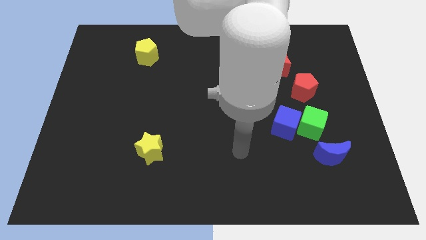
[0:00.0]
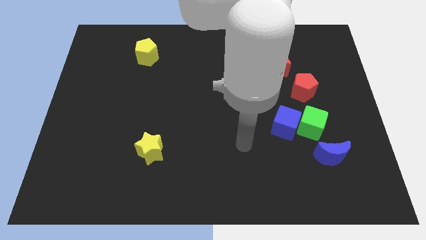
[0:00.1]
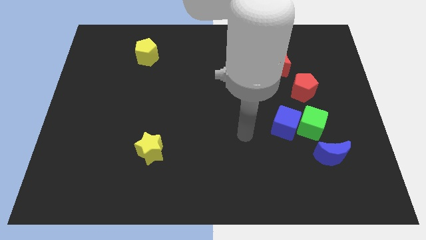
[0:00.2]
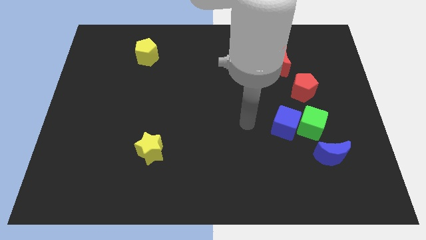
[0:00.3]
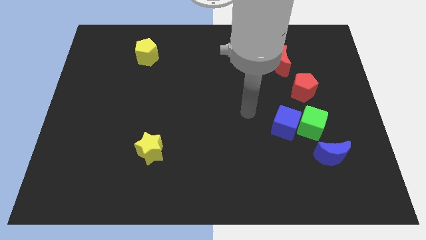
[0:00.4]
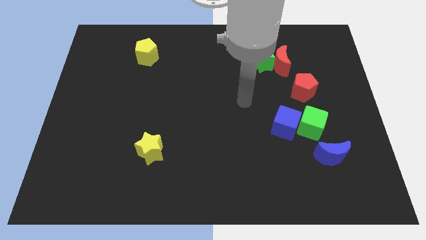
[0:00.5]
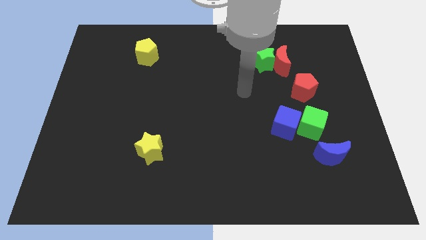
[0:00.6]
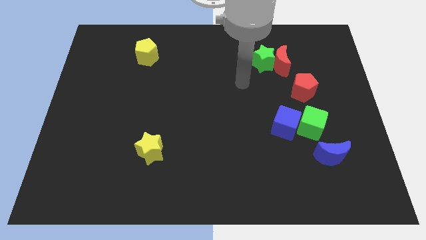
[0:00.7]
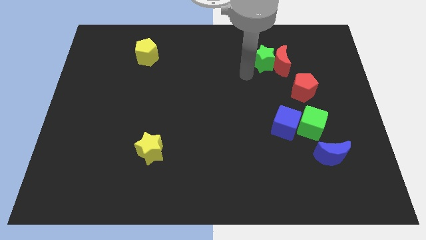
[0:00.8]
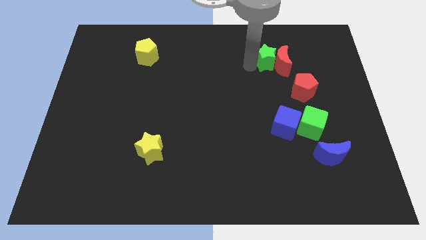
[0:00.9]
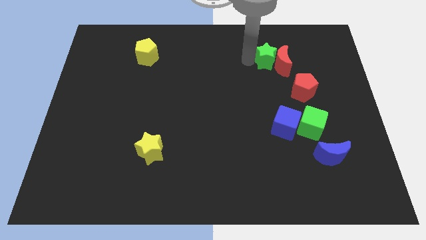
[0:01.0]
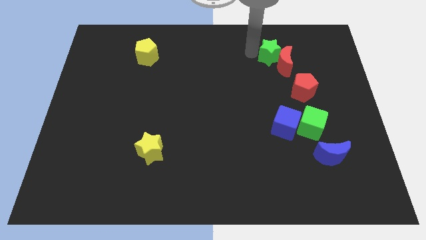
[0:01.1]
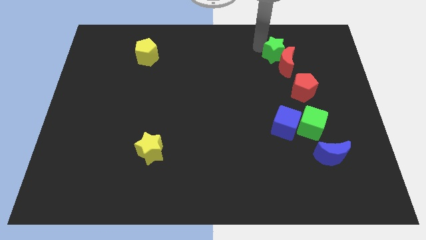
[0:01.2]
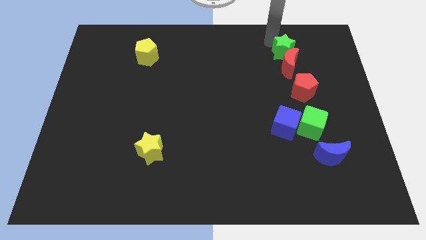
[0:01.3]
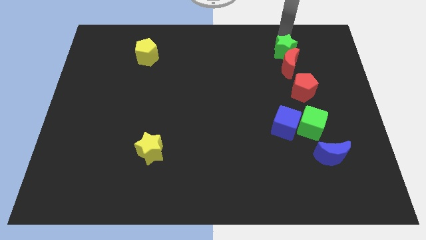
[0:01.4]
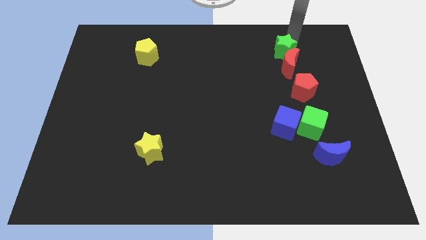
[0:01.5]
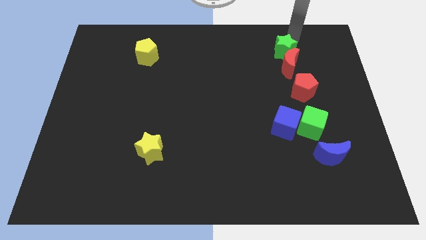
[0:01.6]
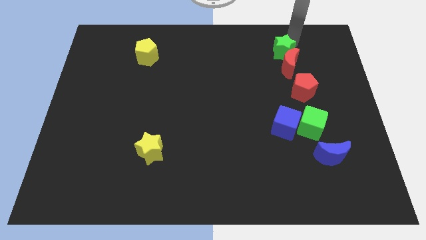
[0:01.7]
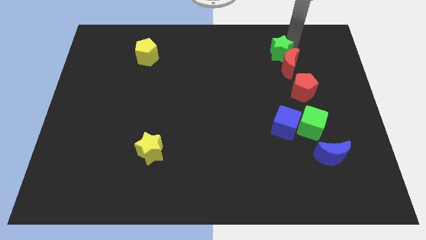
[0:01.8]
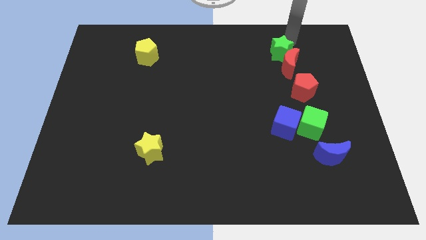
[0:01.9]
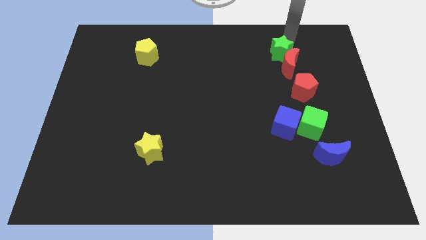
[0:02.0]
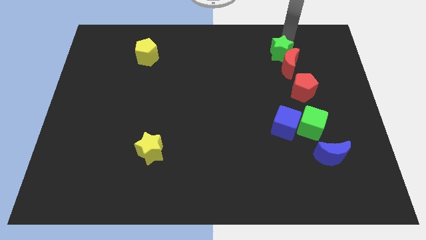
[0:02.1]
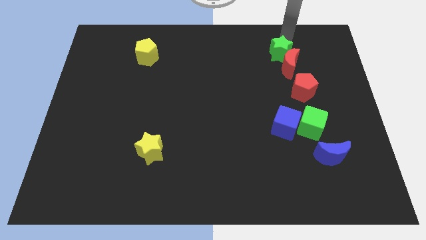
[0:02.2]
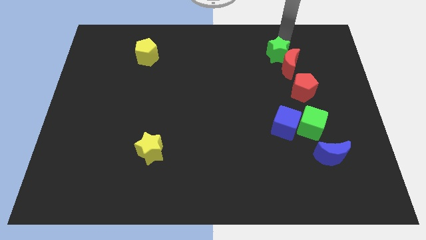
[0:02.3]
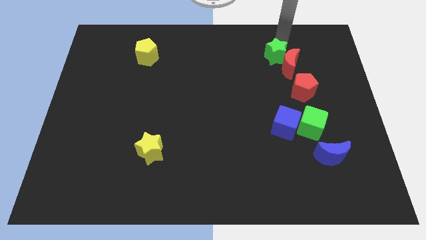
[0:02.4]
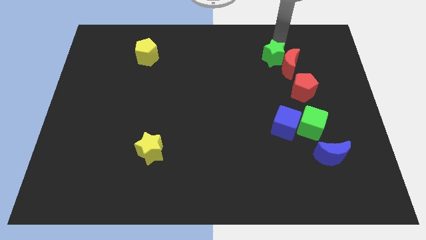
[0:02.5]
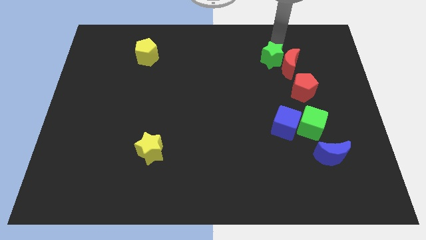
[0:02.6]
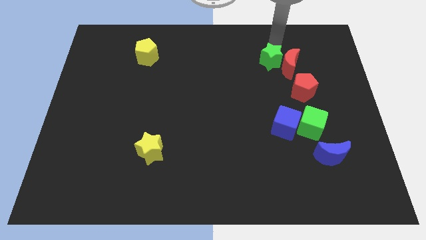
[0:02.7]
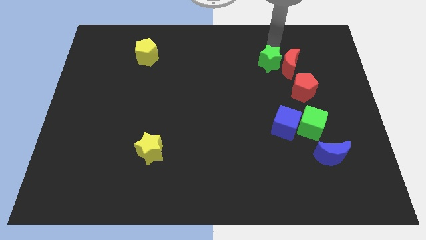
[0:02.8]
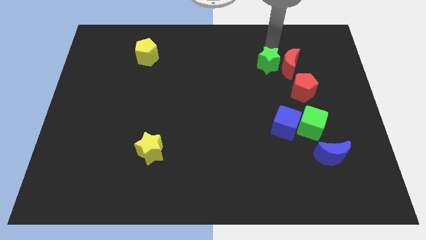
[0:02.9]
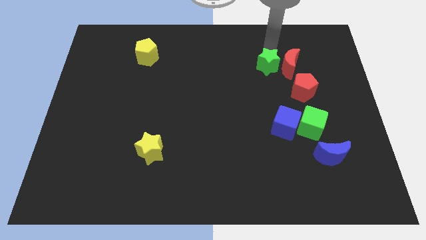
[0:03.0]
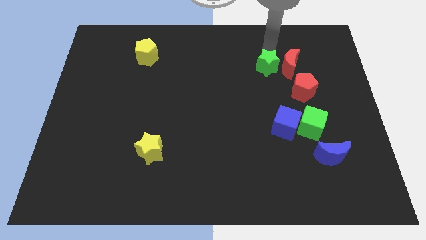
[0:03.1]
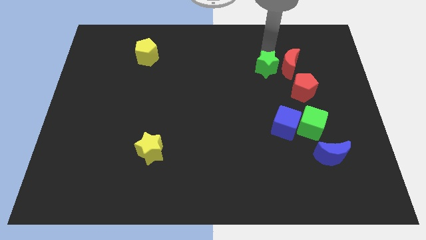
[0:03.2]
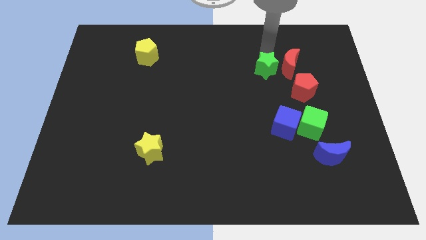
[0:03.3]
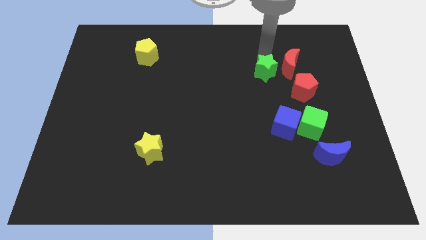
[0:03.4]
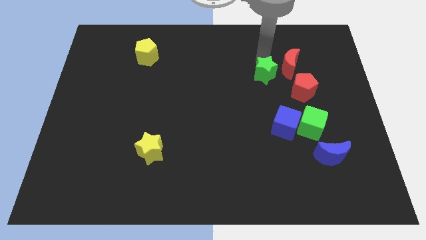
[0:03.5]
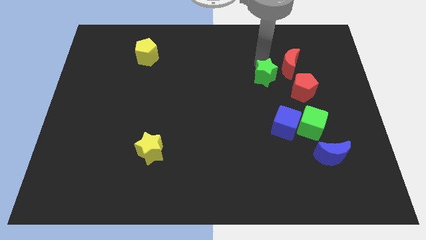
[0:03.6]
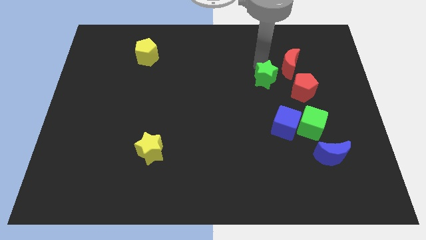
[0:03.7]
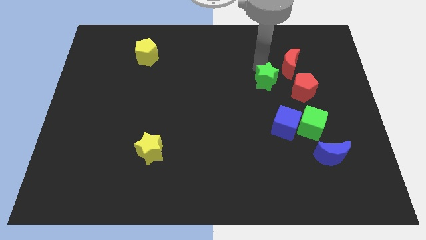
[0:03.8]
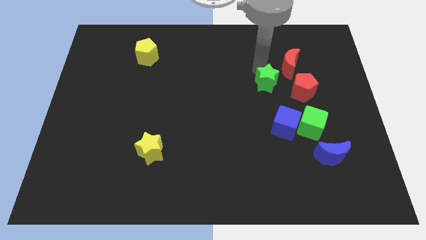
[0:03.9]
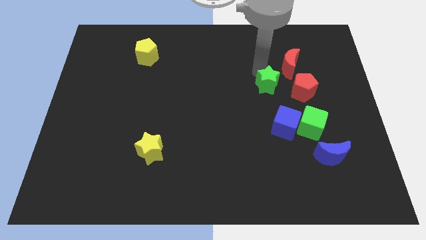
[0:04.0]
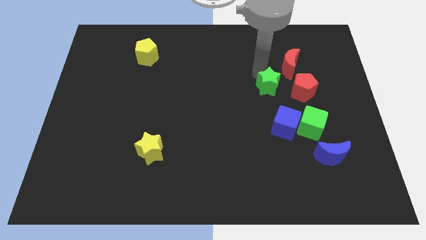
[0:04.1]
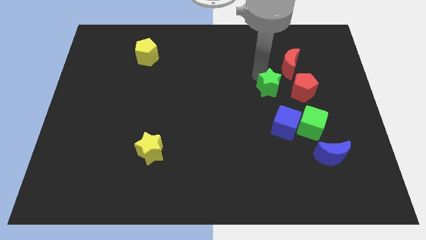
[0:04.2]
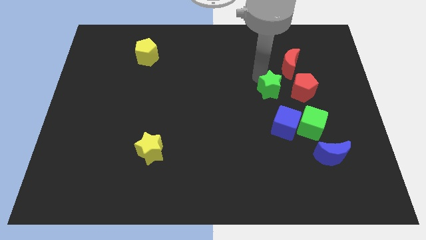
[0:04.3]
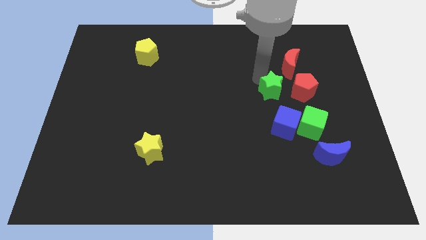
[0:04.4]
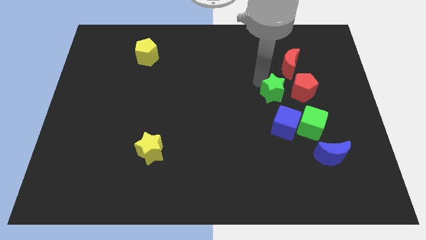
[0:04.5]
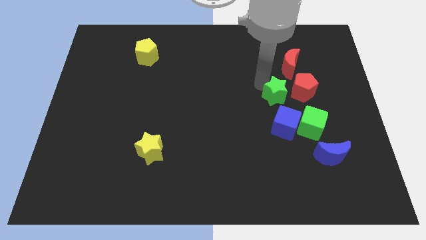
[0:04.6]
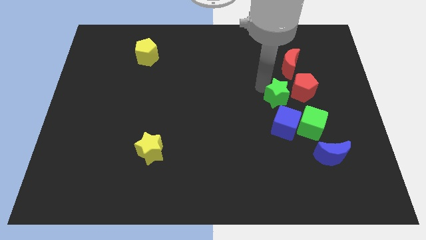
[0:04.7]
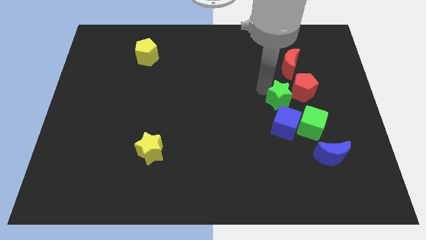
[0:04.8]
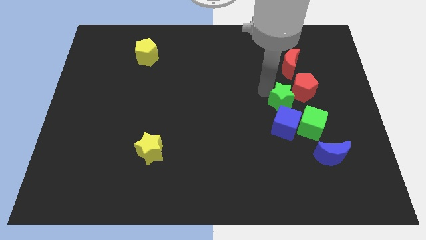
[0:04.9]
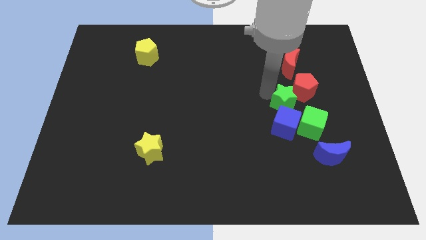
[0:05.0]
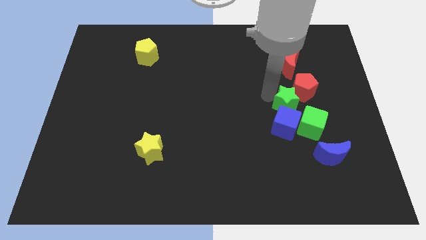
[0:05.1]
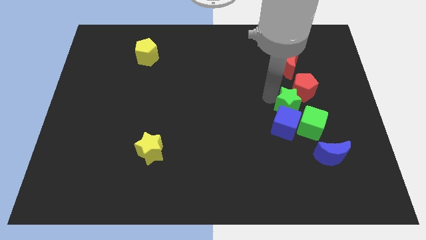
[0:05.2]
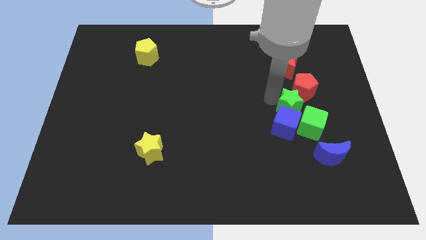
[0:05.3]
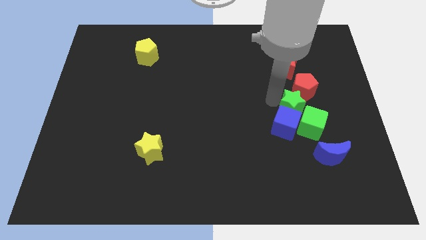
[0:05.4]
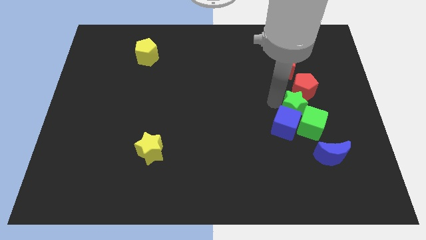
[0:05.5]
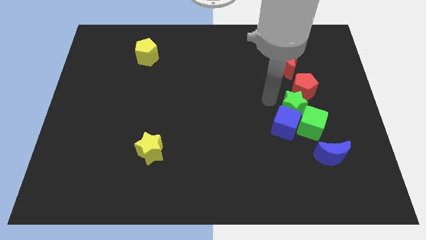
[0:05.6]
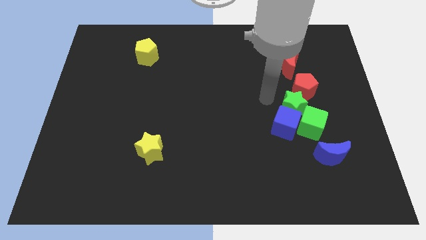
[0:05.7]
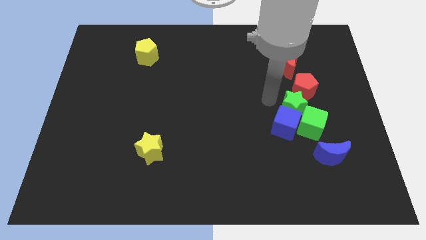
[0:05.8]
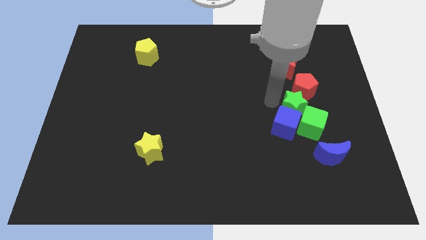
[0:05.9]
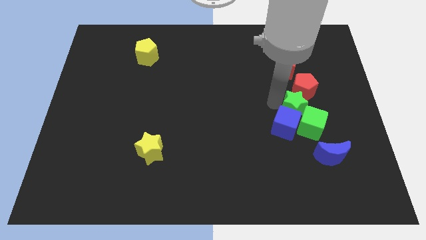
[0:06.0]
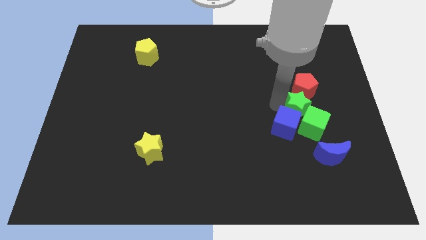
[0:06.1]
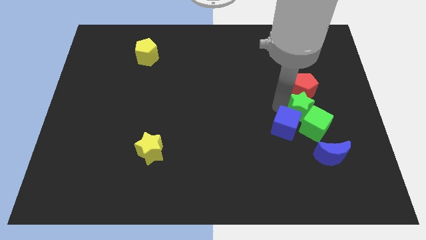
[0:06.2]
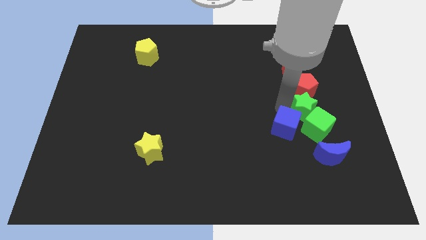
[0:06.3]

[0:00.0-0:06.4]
move the green star above the blue moon

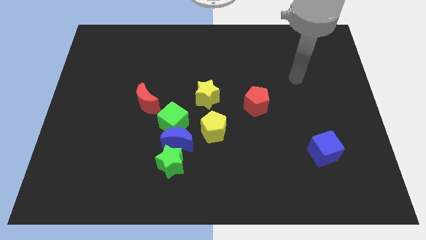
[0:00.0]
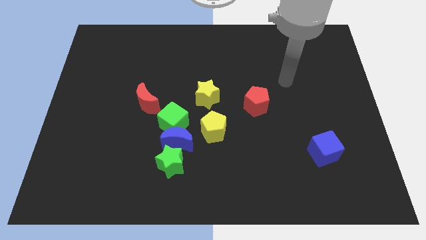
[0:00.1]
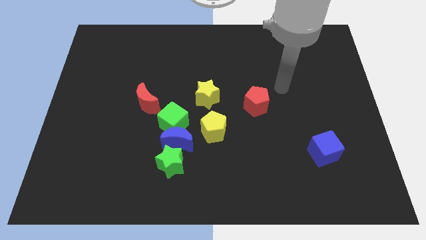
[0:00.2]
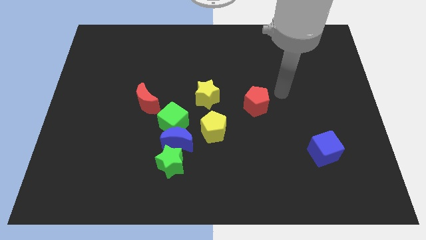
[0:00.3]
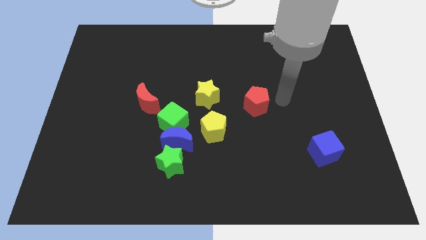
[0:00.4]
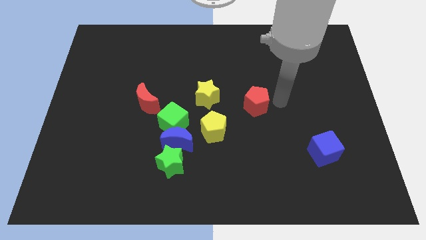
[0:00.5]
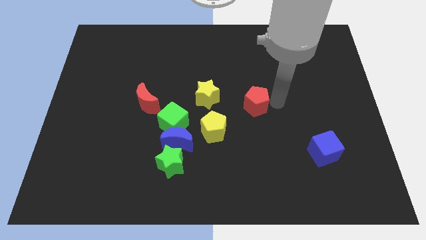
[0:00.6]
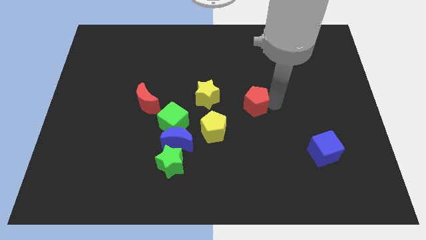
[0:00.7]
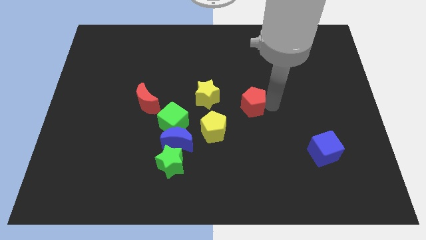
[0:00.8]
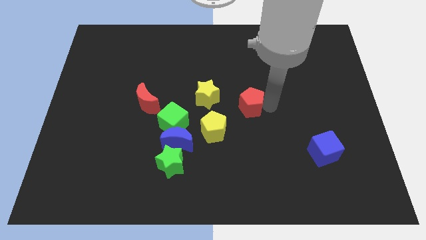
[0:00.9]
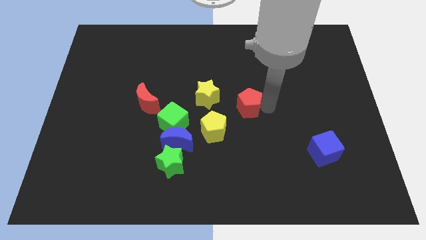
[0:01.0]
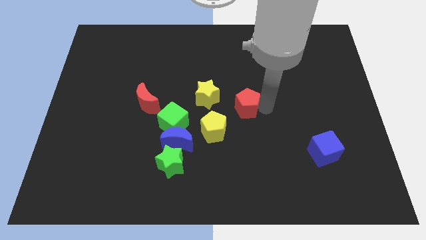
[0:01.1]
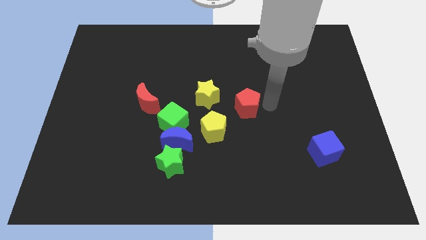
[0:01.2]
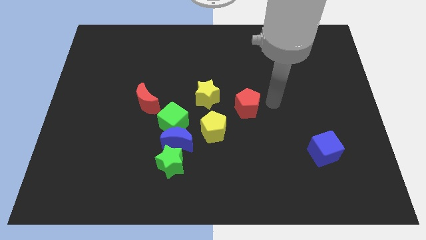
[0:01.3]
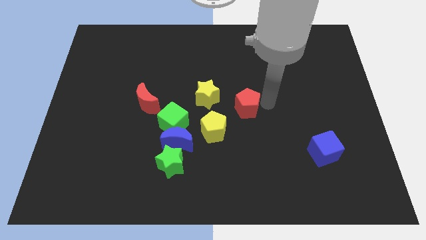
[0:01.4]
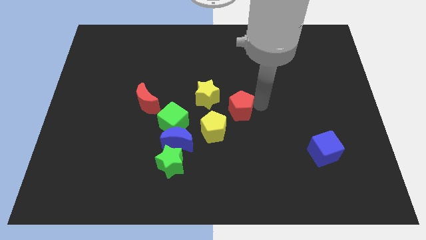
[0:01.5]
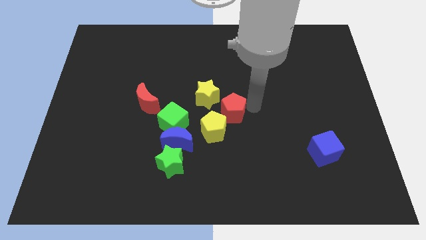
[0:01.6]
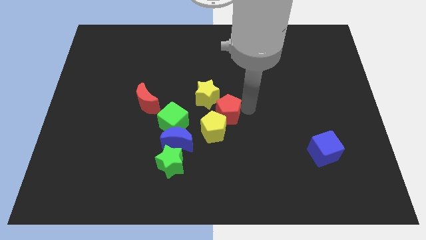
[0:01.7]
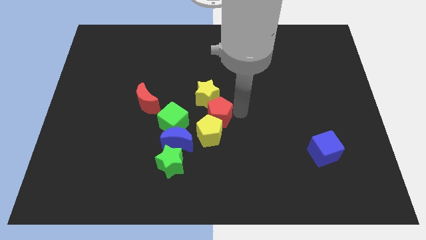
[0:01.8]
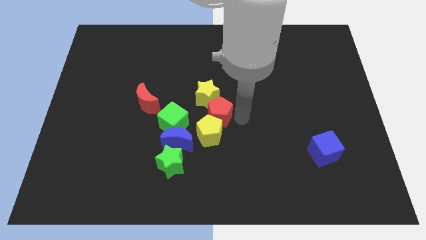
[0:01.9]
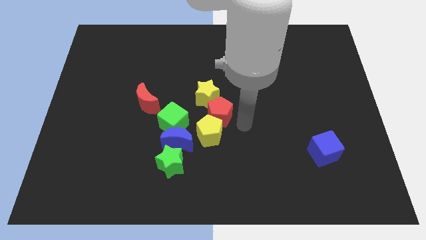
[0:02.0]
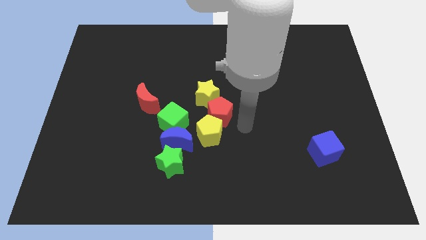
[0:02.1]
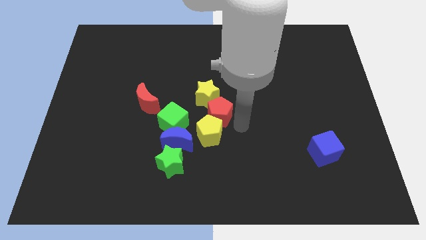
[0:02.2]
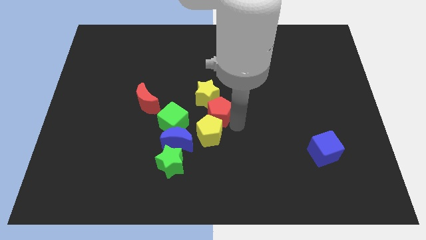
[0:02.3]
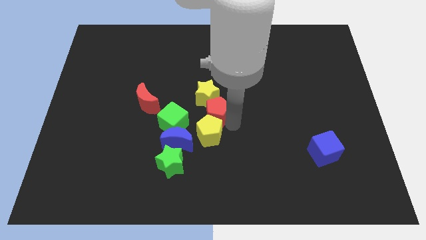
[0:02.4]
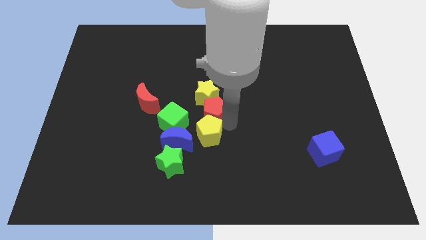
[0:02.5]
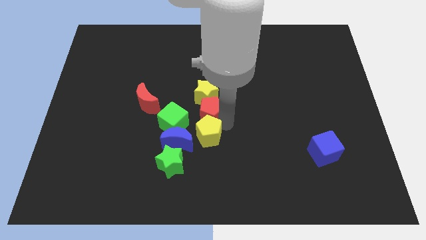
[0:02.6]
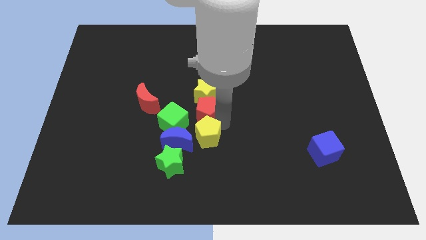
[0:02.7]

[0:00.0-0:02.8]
put the red pentagon to the right of the red moon
